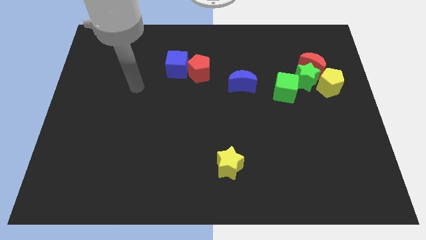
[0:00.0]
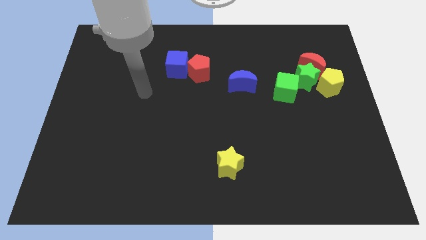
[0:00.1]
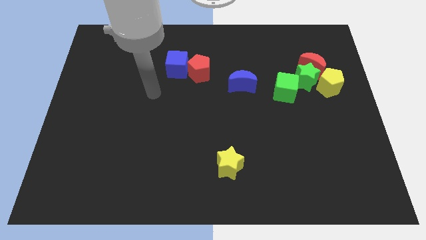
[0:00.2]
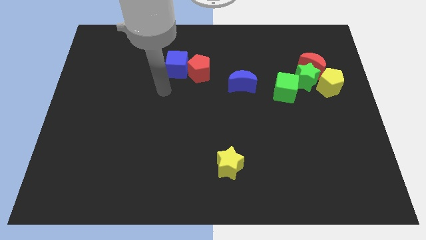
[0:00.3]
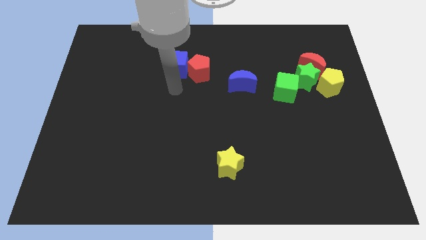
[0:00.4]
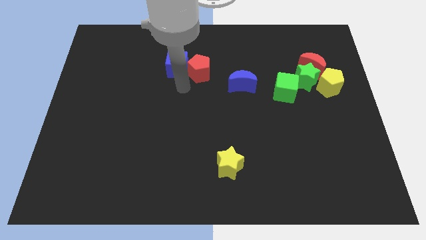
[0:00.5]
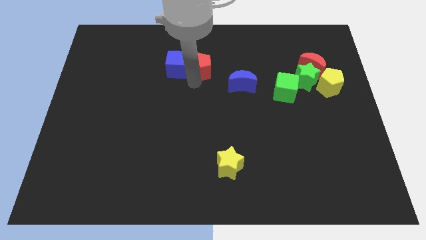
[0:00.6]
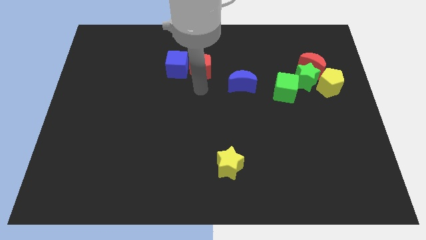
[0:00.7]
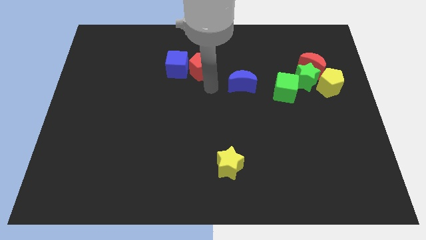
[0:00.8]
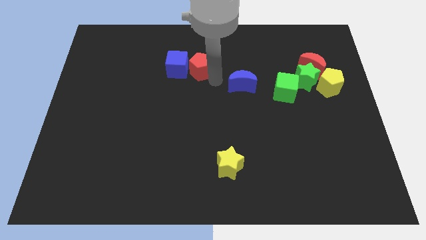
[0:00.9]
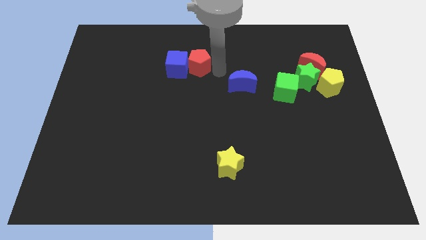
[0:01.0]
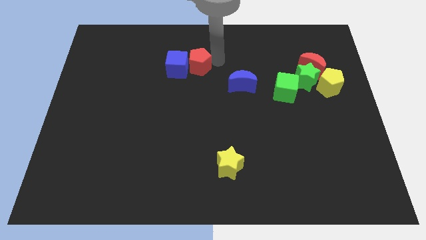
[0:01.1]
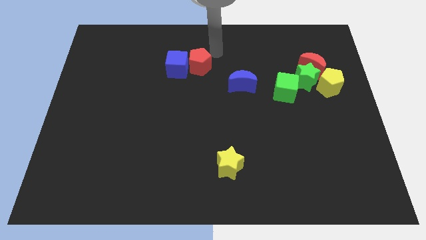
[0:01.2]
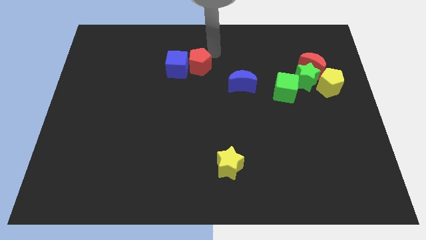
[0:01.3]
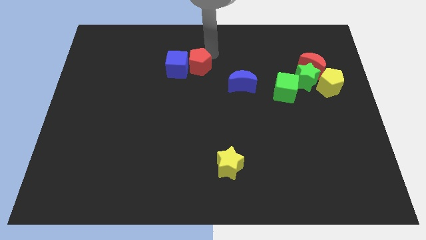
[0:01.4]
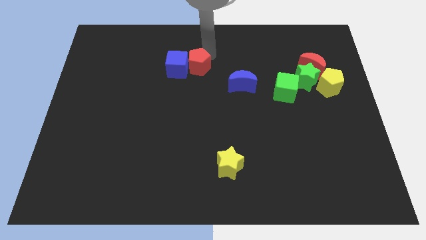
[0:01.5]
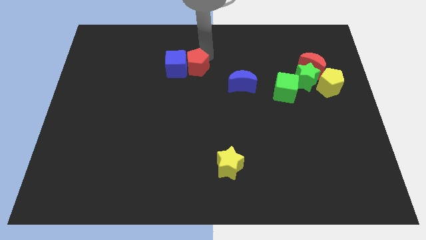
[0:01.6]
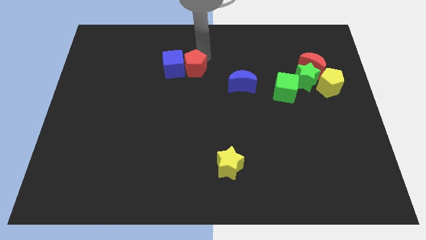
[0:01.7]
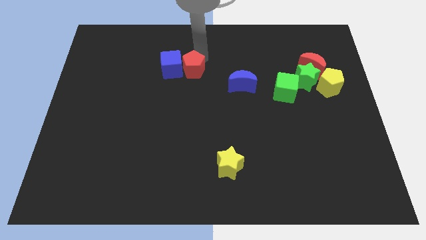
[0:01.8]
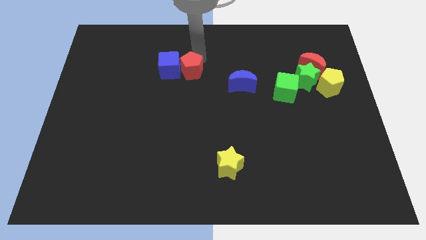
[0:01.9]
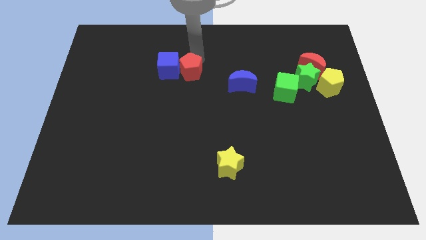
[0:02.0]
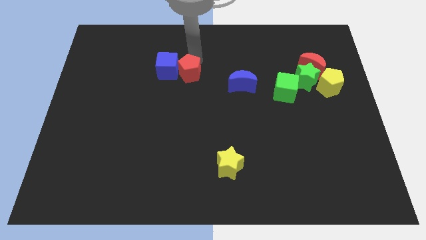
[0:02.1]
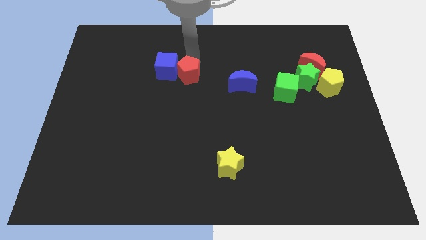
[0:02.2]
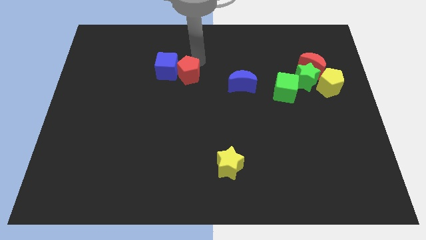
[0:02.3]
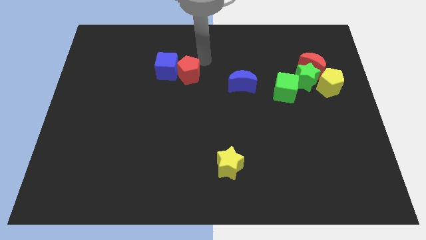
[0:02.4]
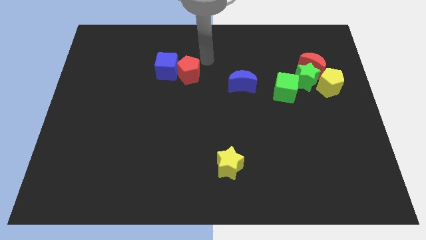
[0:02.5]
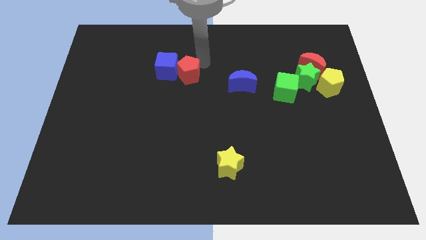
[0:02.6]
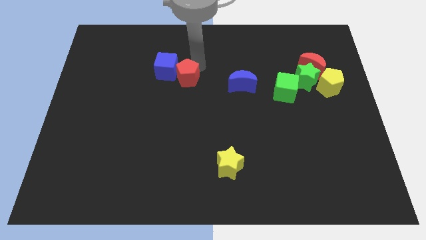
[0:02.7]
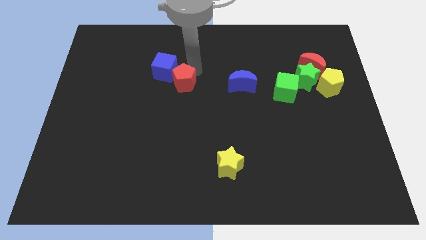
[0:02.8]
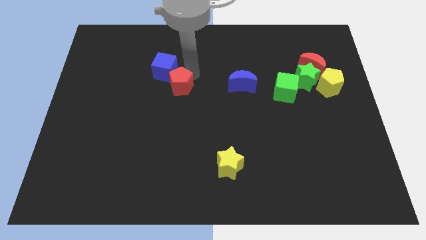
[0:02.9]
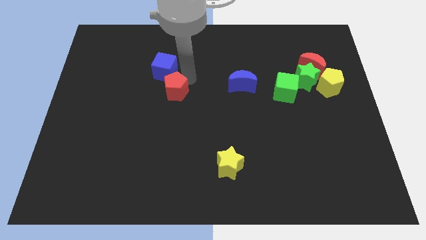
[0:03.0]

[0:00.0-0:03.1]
move the red pentagon slightly diagonally down and left

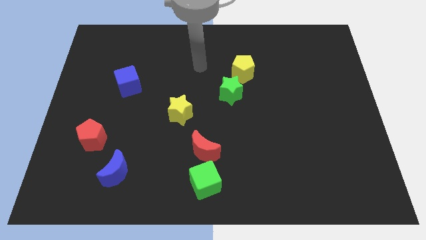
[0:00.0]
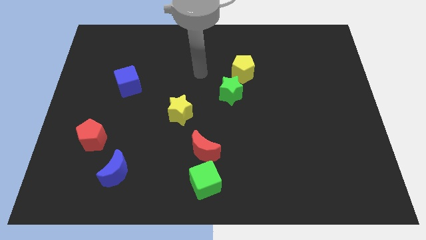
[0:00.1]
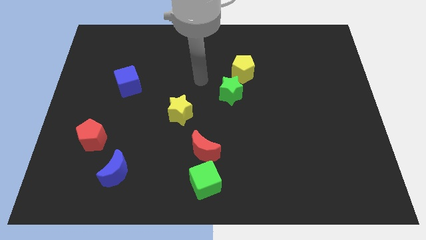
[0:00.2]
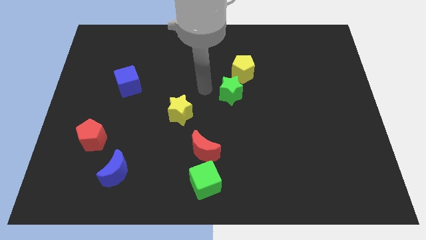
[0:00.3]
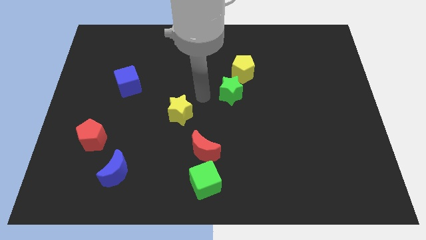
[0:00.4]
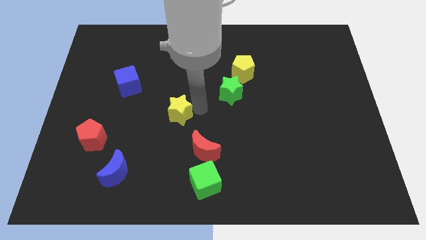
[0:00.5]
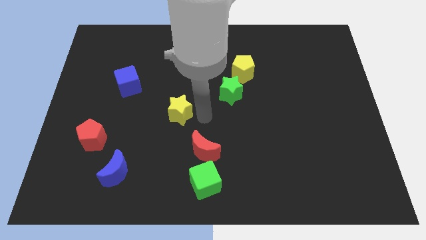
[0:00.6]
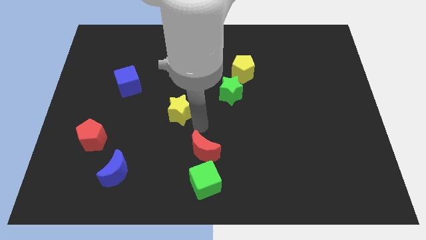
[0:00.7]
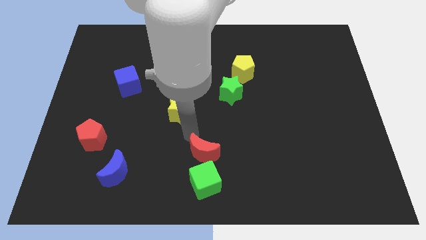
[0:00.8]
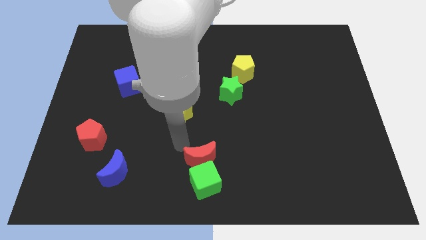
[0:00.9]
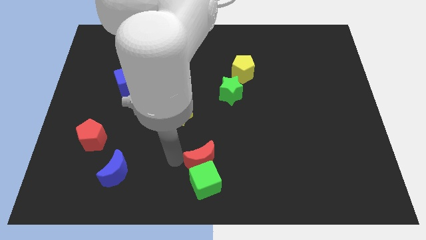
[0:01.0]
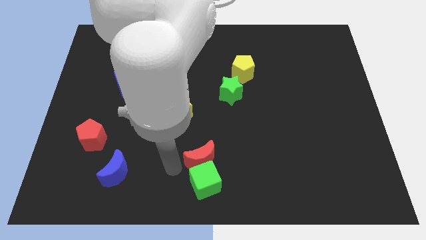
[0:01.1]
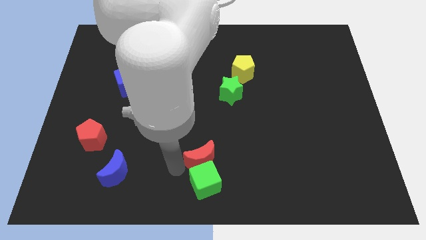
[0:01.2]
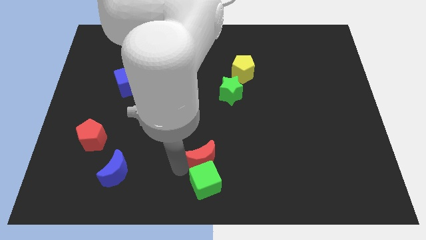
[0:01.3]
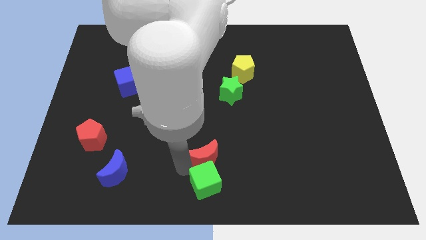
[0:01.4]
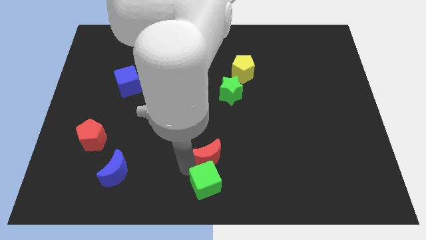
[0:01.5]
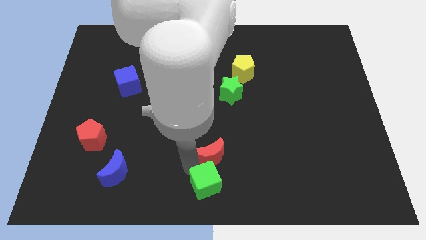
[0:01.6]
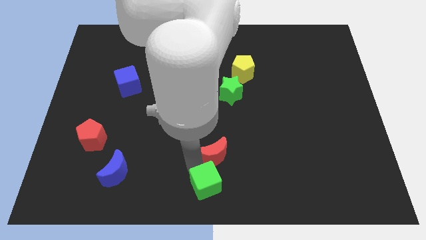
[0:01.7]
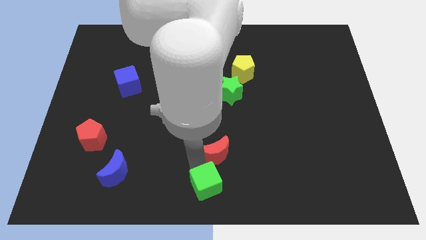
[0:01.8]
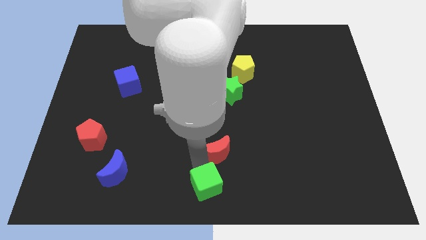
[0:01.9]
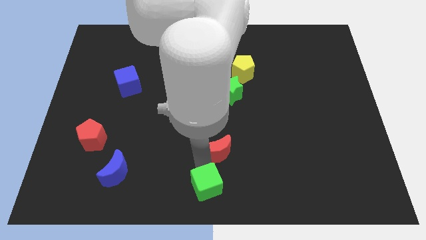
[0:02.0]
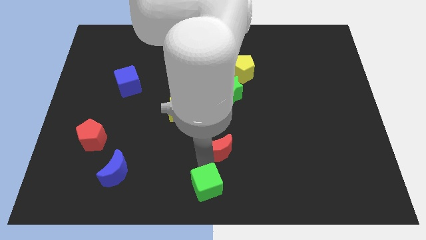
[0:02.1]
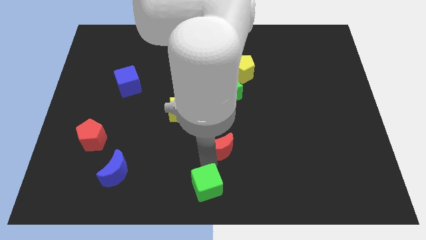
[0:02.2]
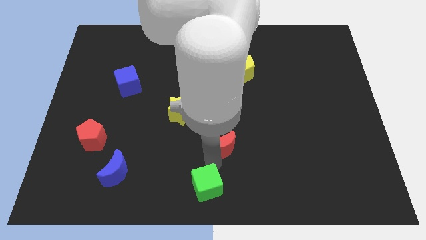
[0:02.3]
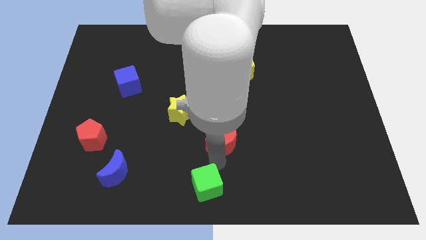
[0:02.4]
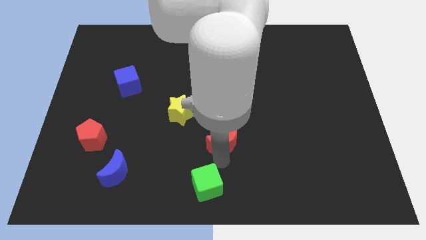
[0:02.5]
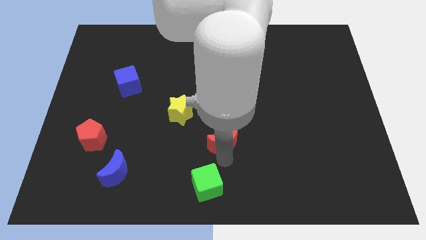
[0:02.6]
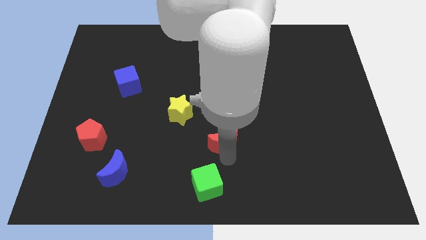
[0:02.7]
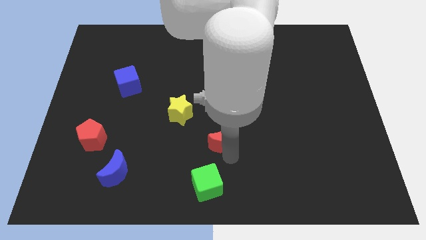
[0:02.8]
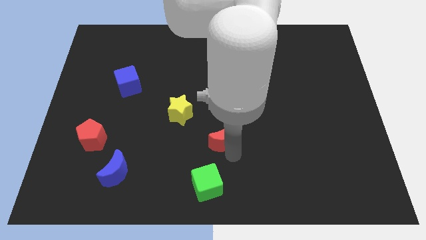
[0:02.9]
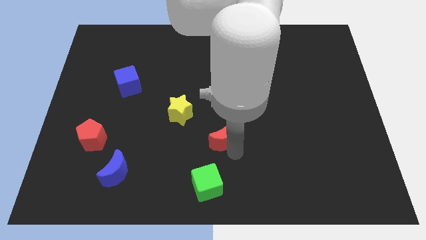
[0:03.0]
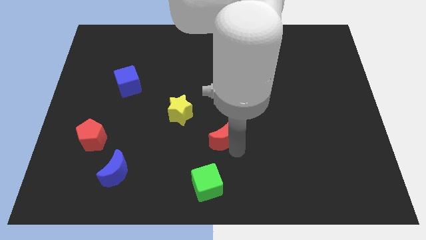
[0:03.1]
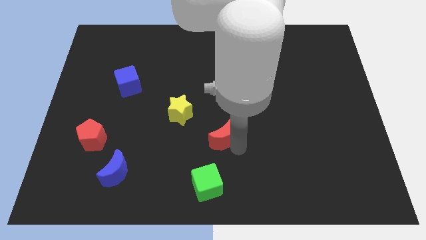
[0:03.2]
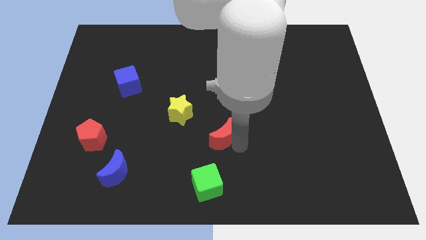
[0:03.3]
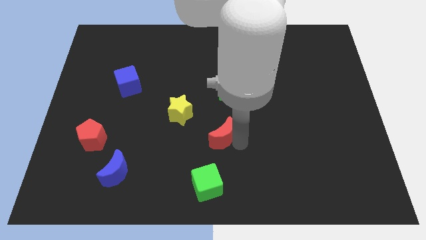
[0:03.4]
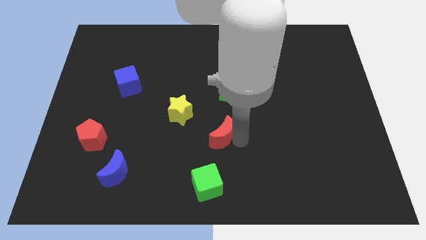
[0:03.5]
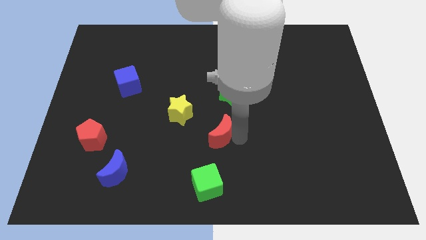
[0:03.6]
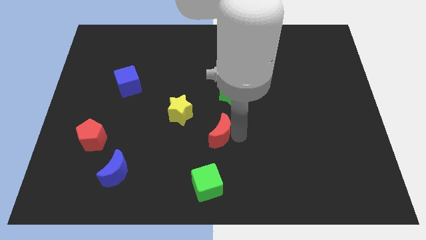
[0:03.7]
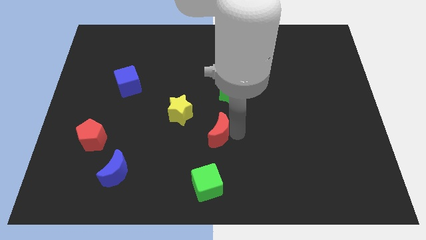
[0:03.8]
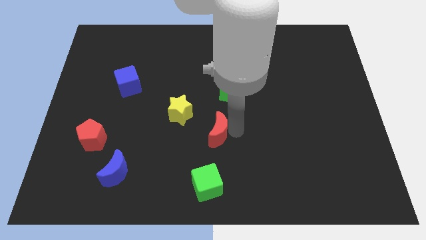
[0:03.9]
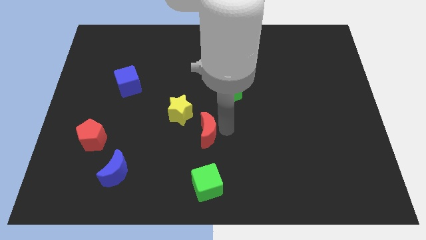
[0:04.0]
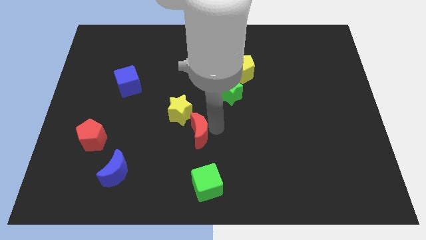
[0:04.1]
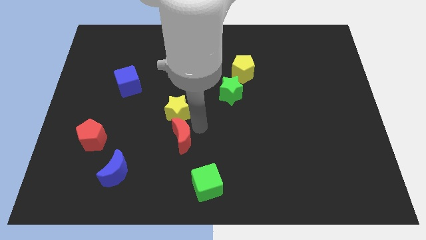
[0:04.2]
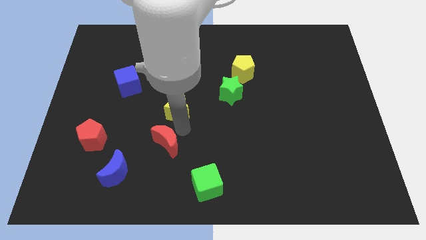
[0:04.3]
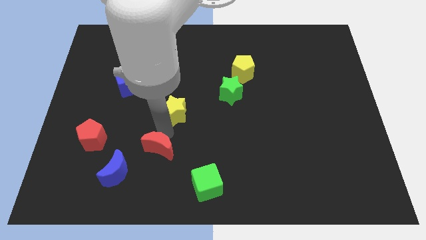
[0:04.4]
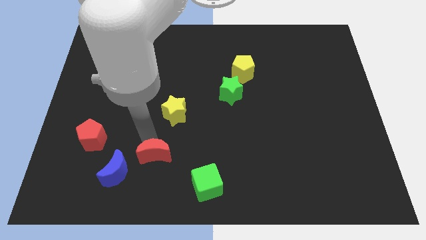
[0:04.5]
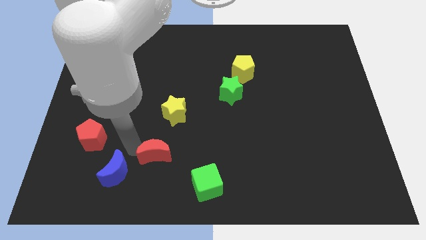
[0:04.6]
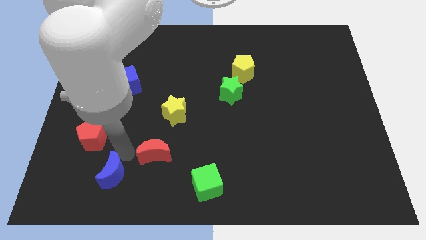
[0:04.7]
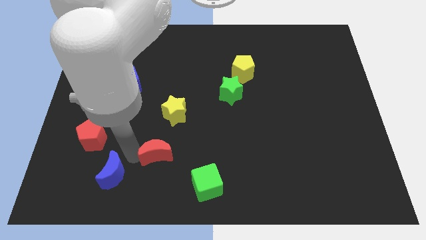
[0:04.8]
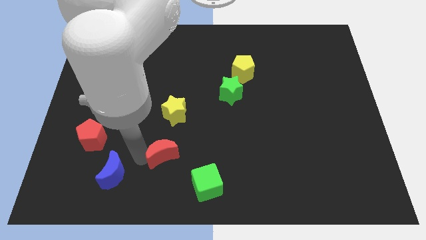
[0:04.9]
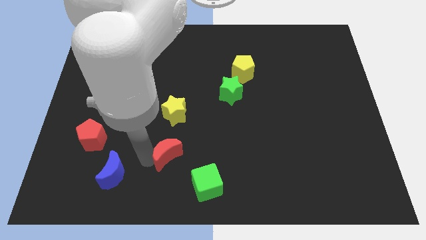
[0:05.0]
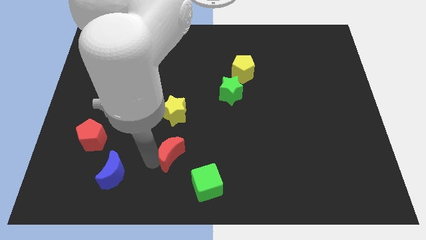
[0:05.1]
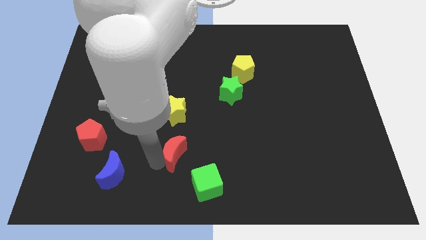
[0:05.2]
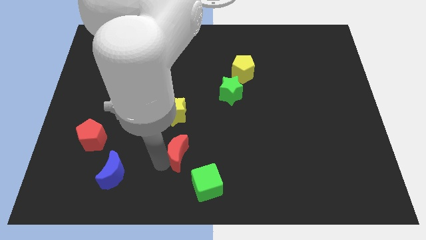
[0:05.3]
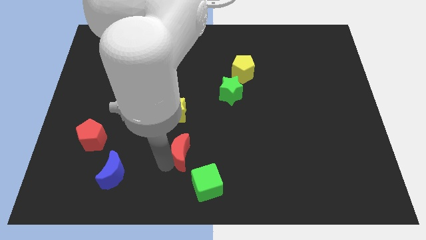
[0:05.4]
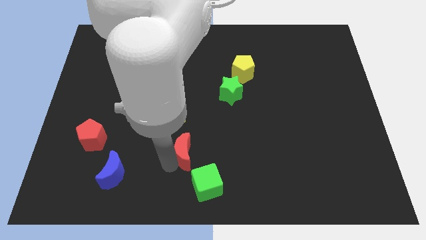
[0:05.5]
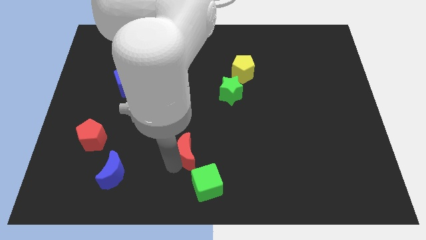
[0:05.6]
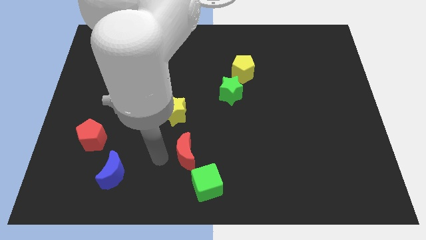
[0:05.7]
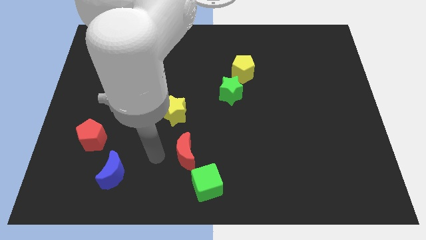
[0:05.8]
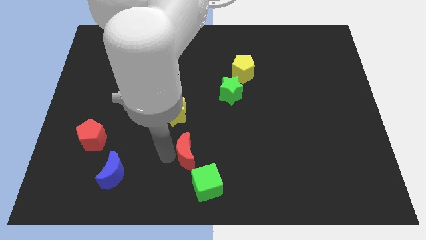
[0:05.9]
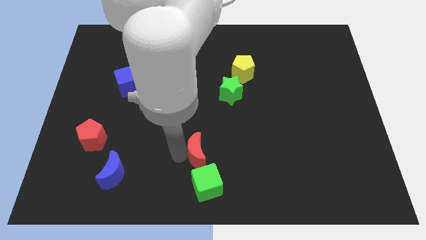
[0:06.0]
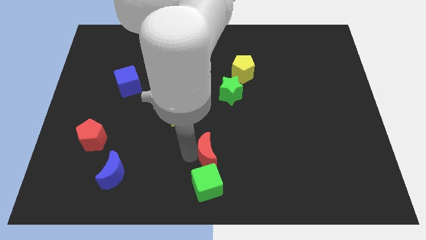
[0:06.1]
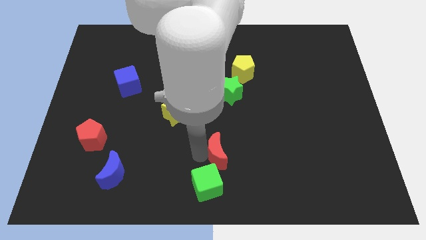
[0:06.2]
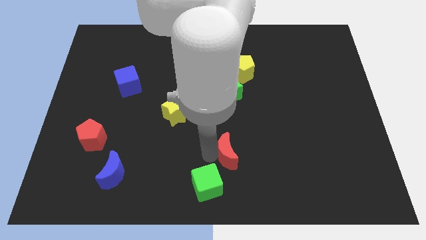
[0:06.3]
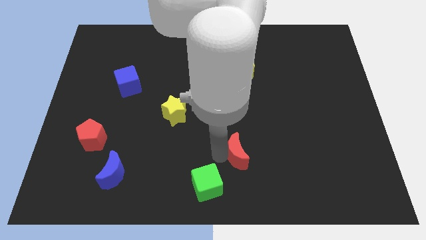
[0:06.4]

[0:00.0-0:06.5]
slide the red moon right a little bit
